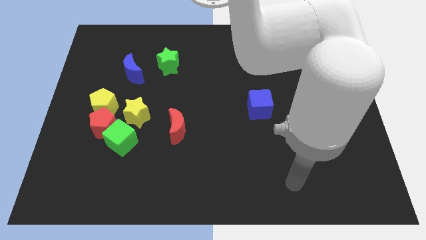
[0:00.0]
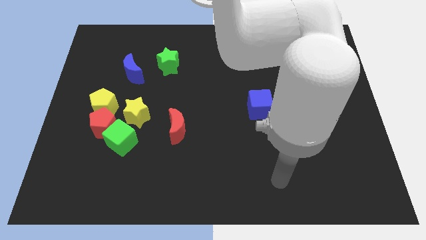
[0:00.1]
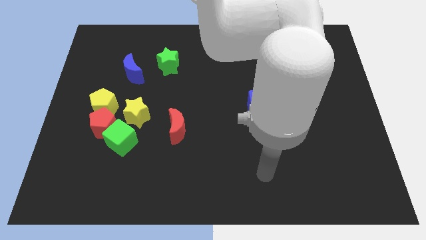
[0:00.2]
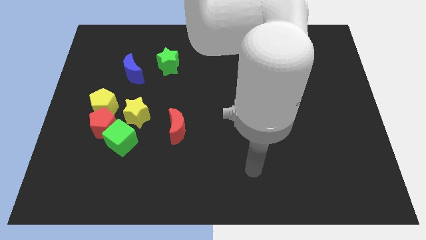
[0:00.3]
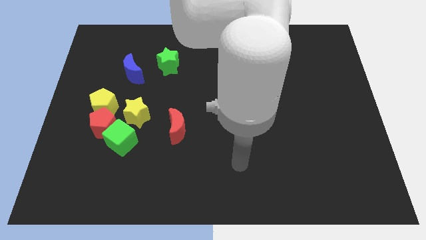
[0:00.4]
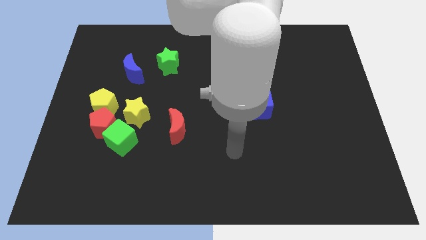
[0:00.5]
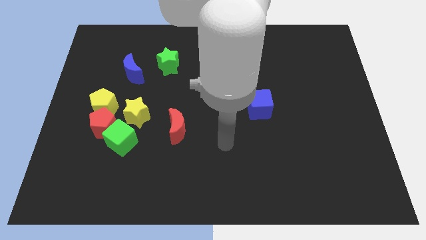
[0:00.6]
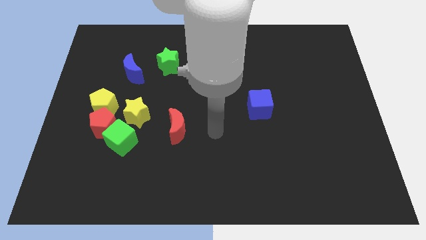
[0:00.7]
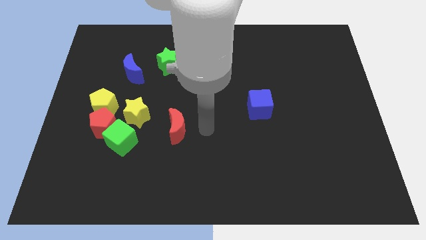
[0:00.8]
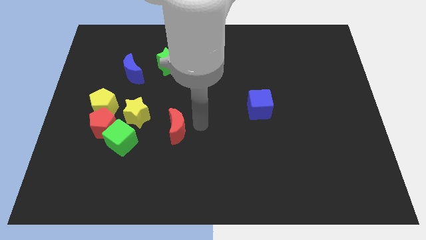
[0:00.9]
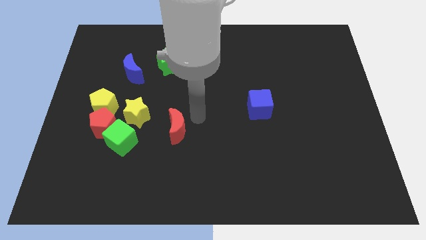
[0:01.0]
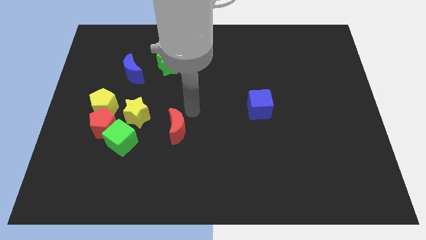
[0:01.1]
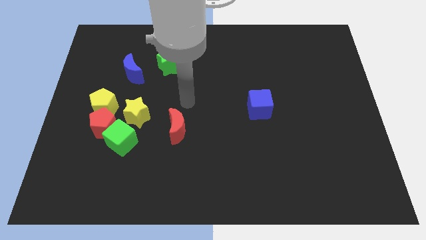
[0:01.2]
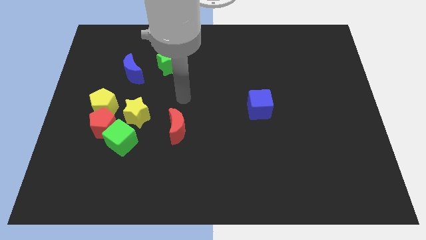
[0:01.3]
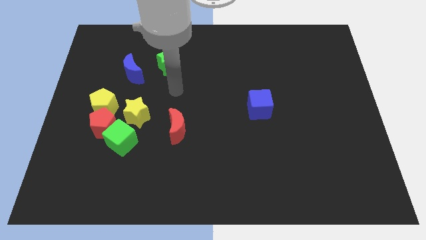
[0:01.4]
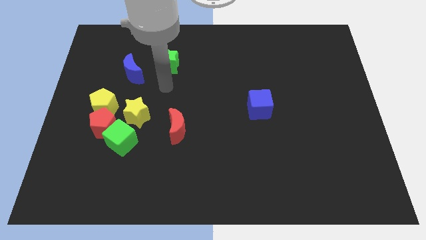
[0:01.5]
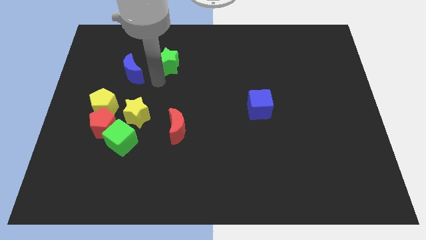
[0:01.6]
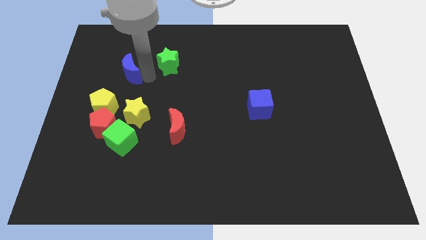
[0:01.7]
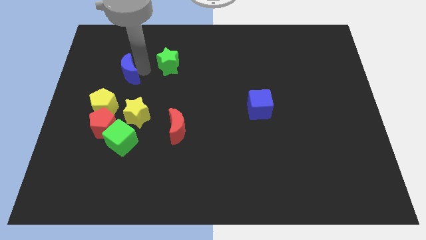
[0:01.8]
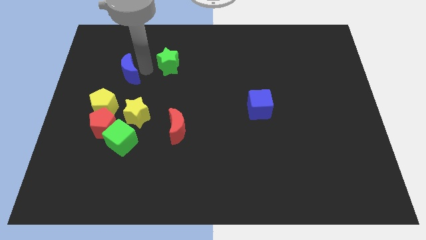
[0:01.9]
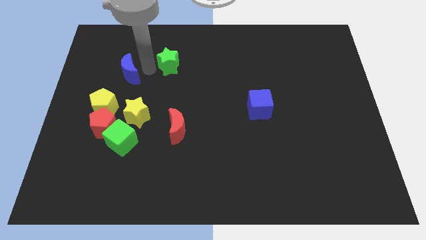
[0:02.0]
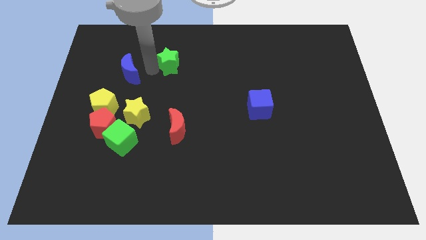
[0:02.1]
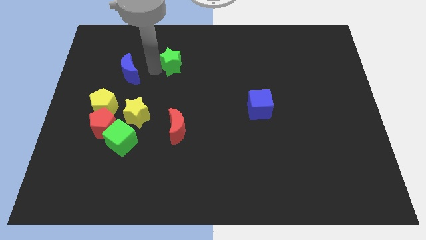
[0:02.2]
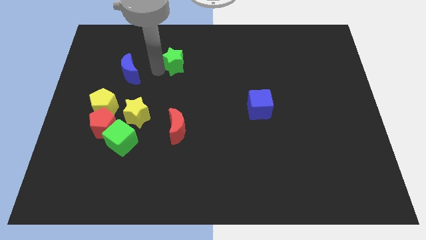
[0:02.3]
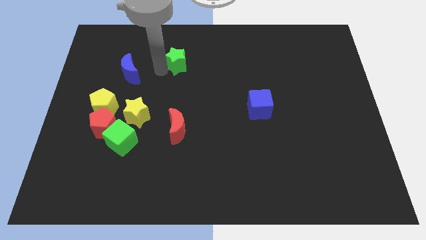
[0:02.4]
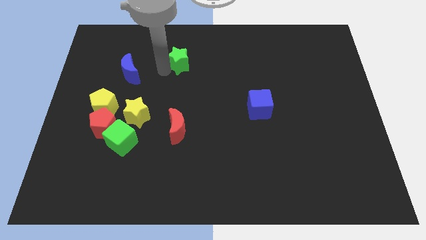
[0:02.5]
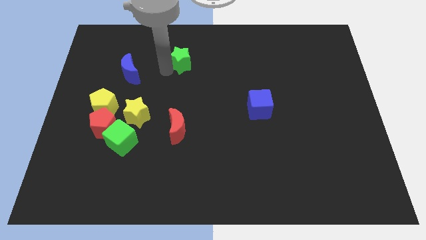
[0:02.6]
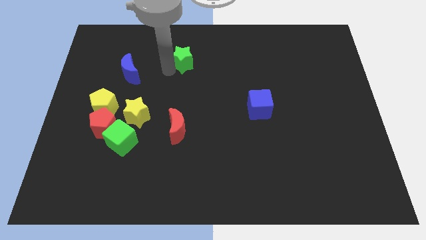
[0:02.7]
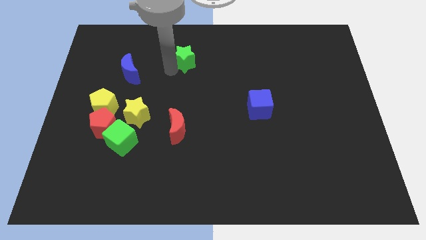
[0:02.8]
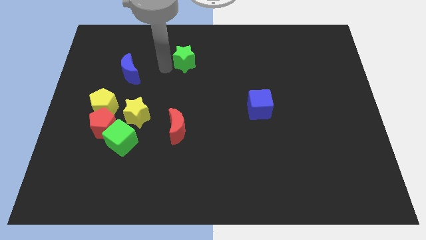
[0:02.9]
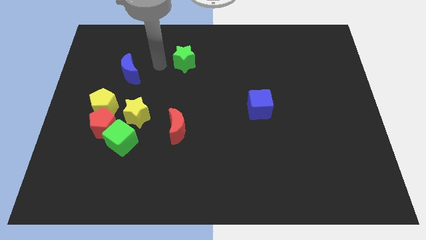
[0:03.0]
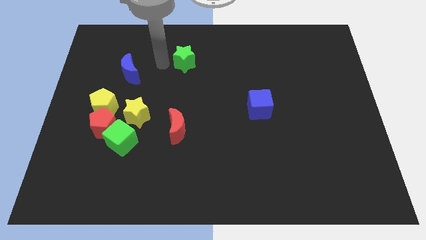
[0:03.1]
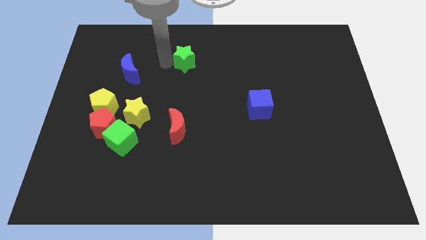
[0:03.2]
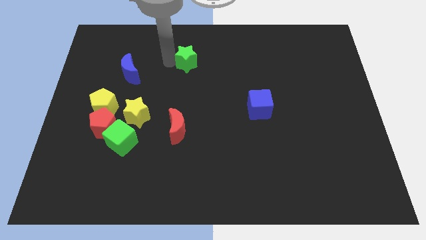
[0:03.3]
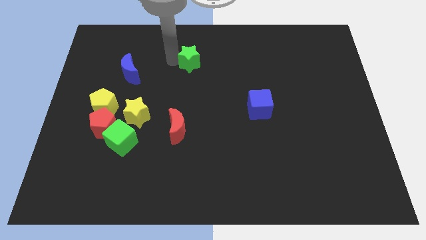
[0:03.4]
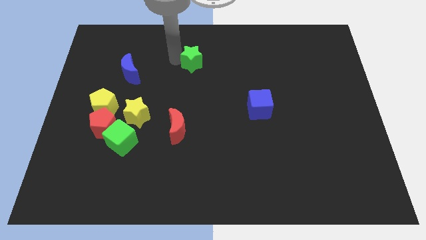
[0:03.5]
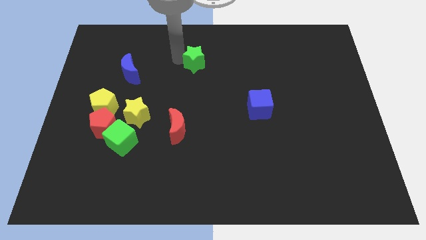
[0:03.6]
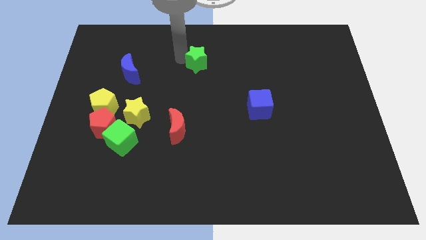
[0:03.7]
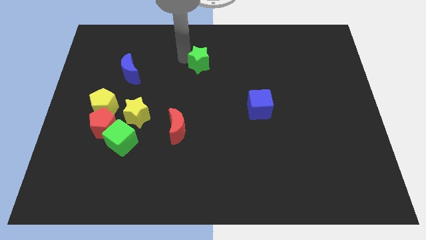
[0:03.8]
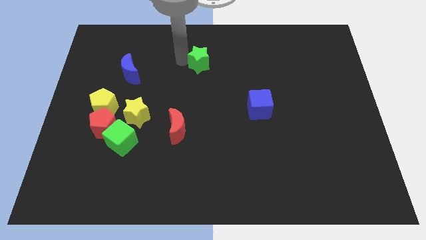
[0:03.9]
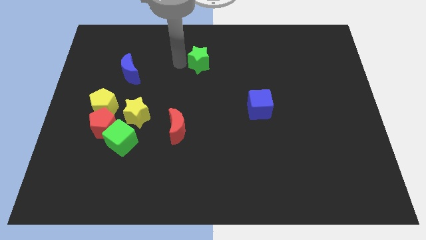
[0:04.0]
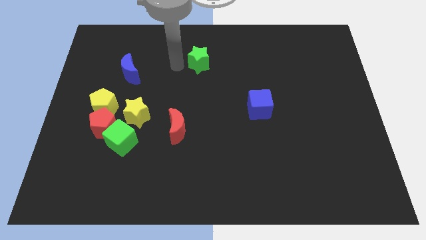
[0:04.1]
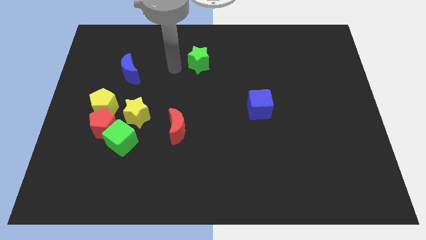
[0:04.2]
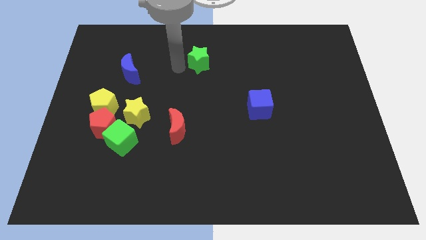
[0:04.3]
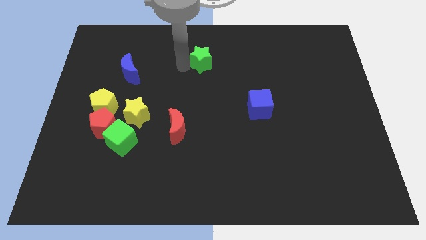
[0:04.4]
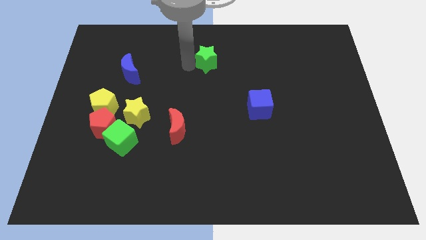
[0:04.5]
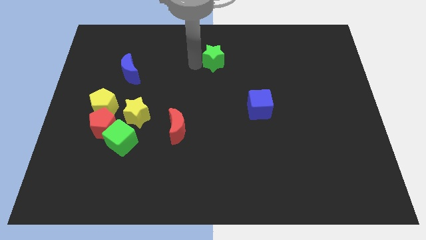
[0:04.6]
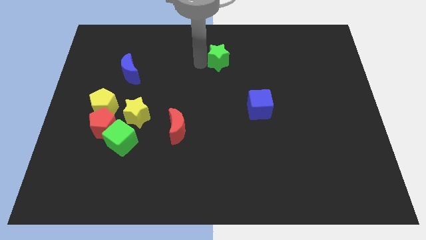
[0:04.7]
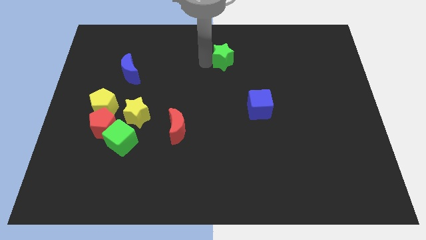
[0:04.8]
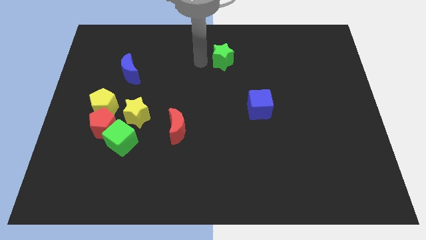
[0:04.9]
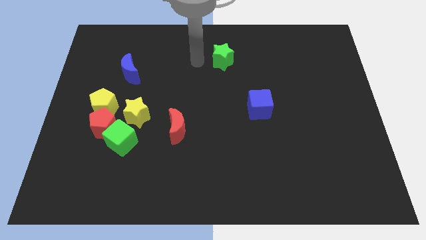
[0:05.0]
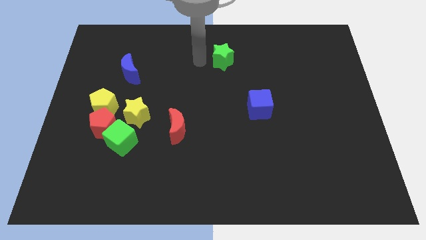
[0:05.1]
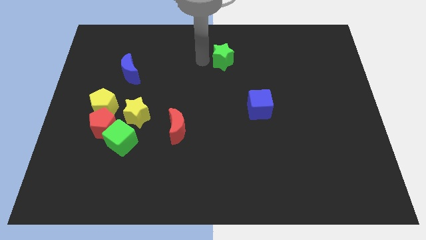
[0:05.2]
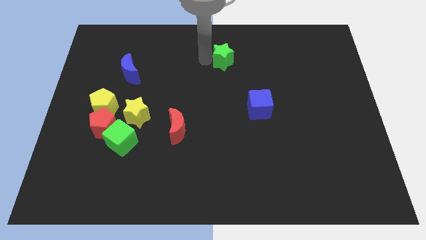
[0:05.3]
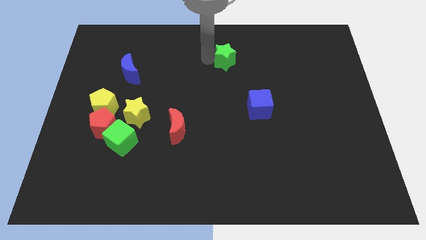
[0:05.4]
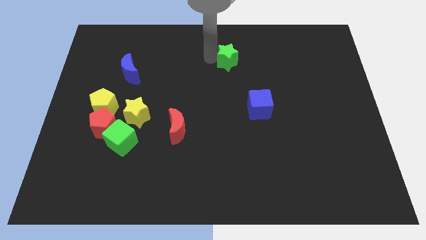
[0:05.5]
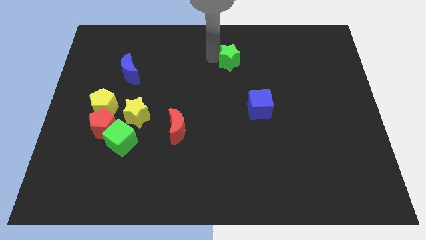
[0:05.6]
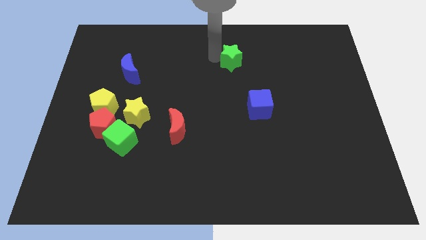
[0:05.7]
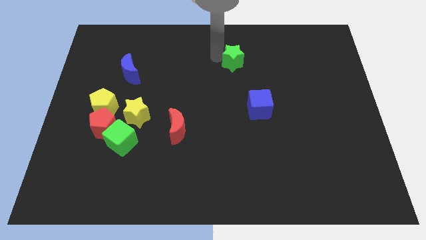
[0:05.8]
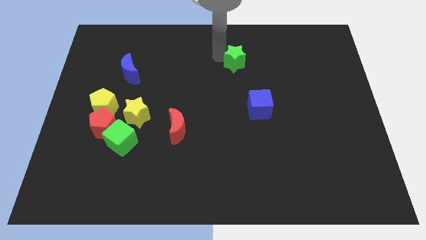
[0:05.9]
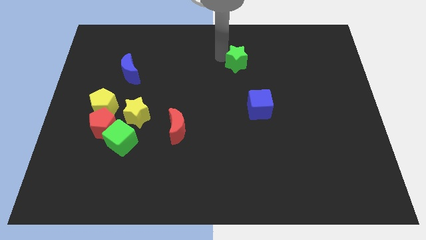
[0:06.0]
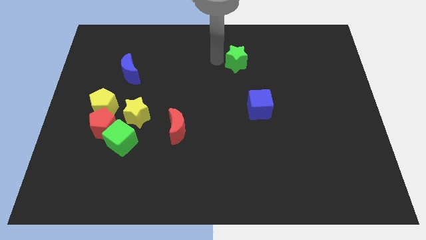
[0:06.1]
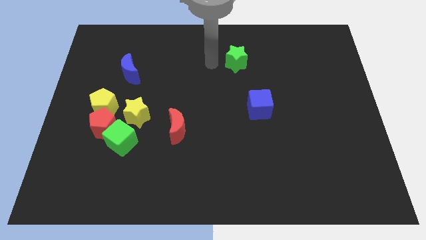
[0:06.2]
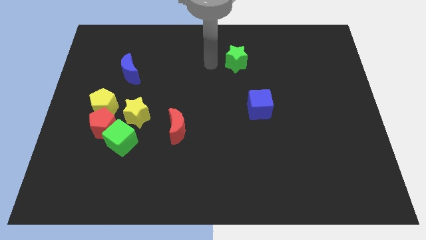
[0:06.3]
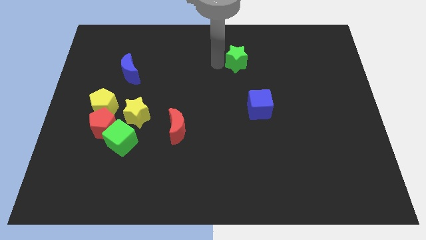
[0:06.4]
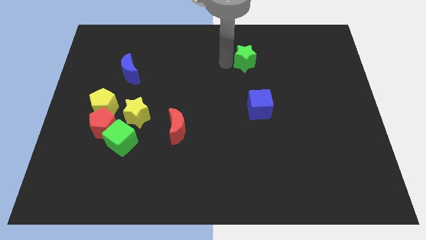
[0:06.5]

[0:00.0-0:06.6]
push the green star right

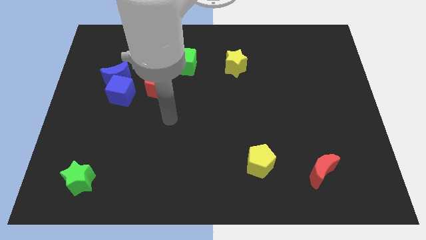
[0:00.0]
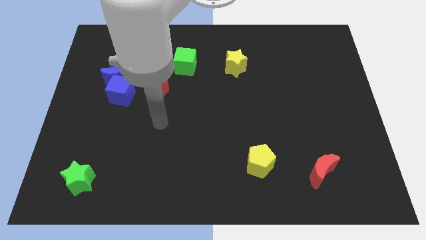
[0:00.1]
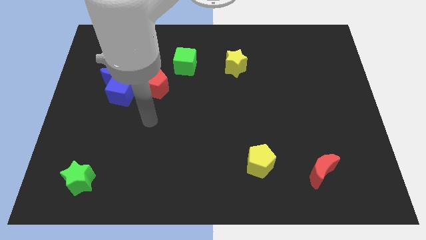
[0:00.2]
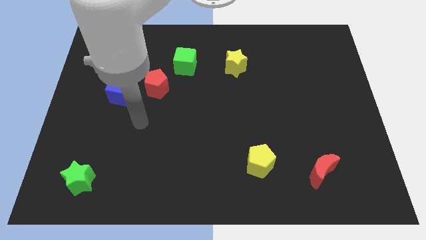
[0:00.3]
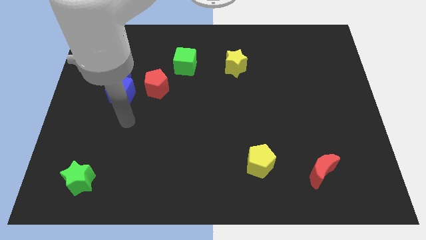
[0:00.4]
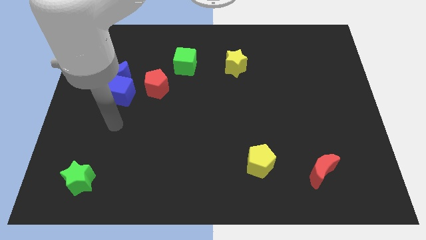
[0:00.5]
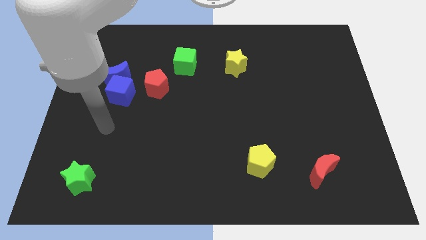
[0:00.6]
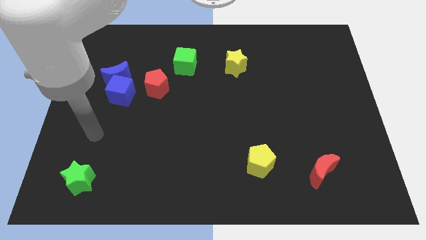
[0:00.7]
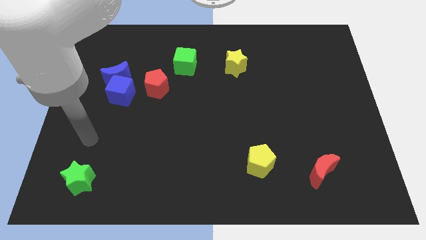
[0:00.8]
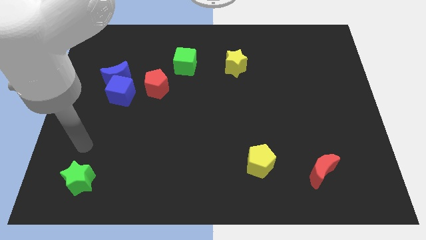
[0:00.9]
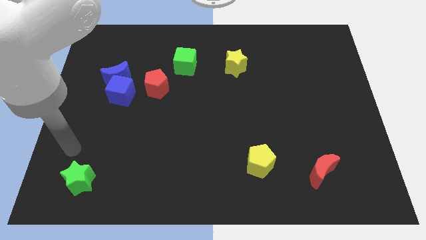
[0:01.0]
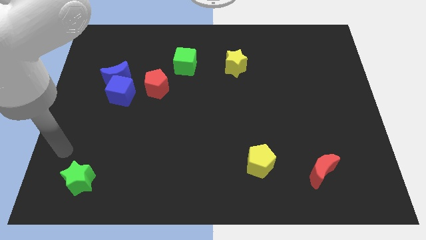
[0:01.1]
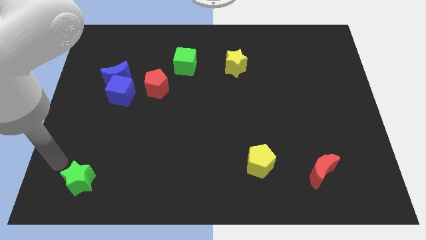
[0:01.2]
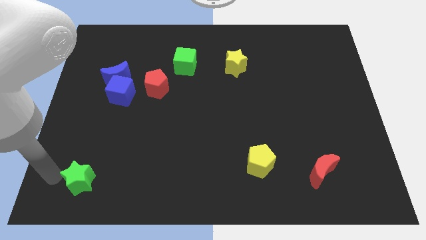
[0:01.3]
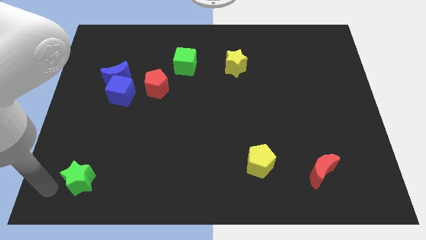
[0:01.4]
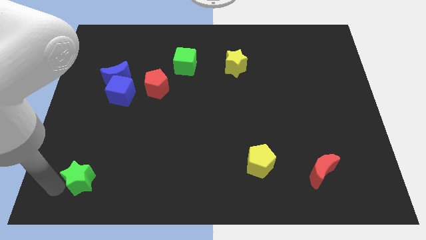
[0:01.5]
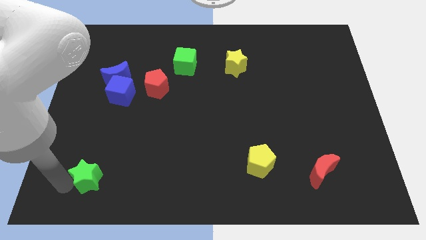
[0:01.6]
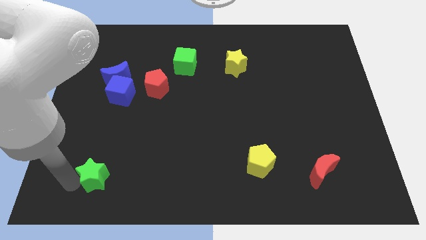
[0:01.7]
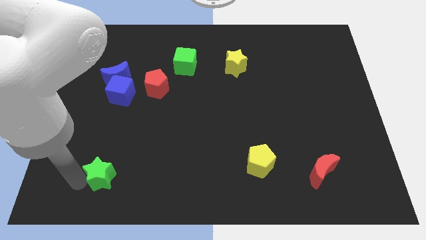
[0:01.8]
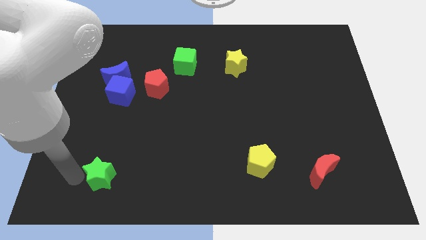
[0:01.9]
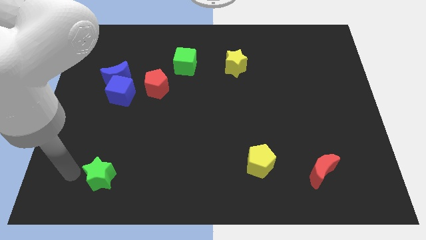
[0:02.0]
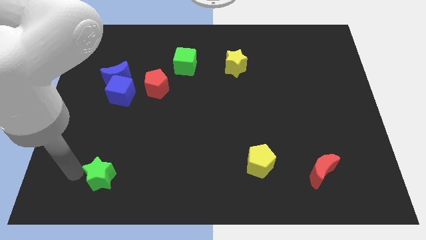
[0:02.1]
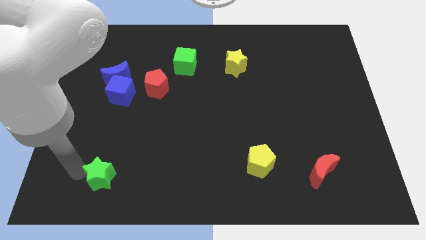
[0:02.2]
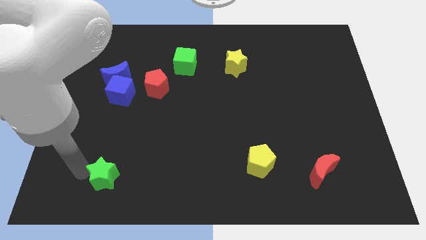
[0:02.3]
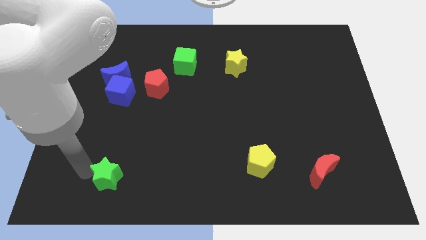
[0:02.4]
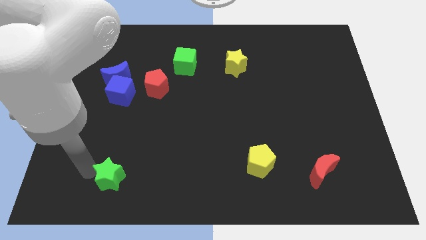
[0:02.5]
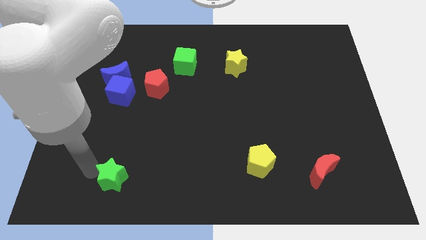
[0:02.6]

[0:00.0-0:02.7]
slide the green star to the right a little bit
